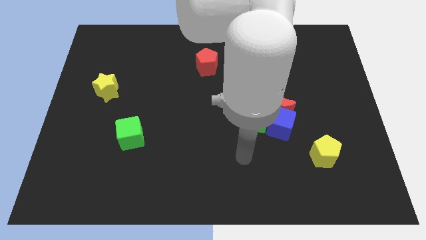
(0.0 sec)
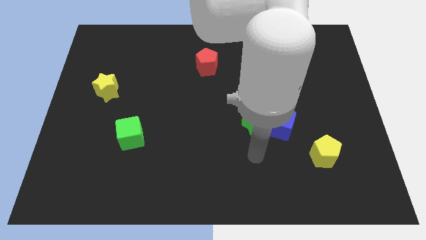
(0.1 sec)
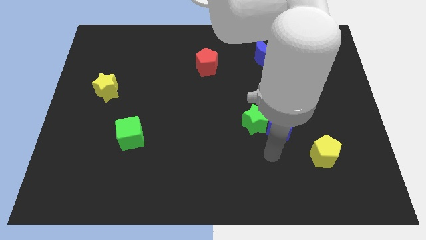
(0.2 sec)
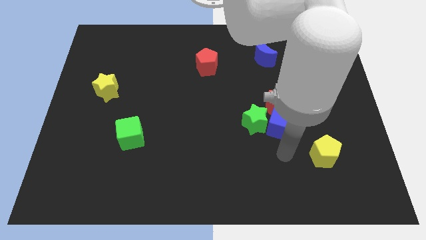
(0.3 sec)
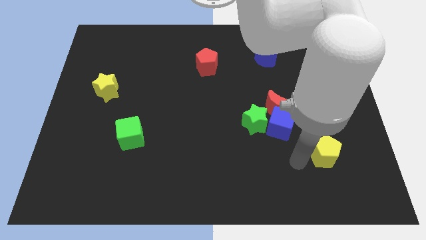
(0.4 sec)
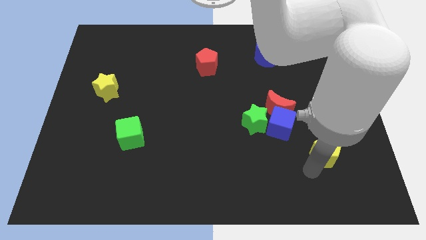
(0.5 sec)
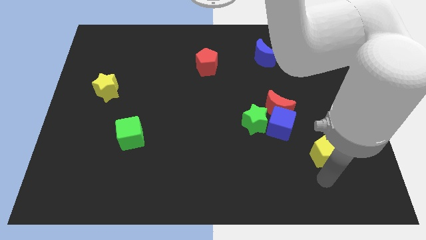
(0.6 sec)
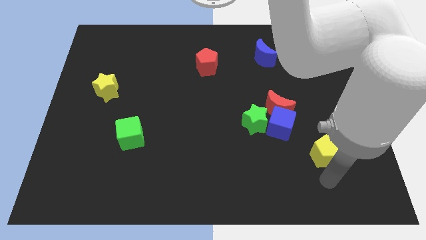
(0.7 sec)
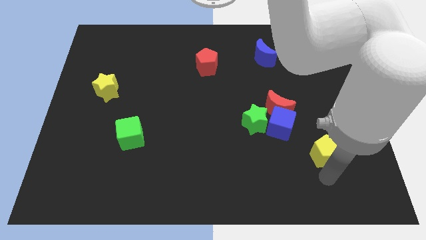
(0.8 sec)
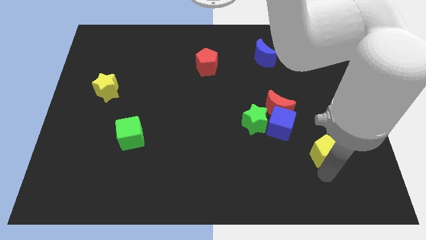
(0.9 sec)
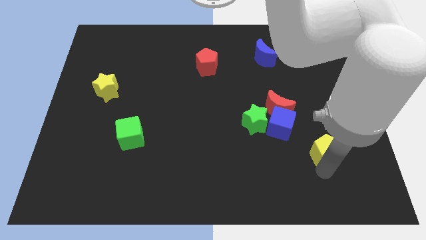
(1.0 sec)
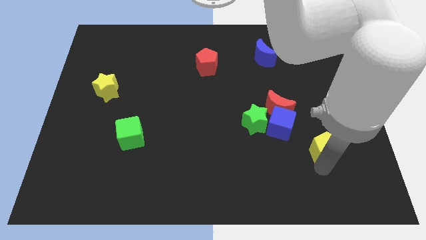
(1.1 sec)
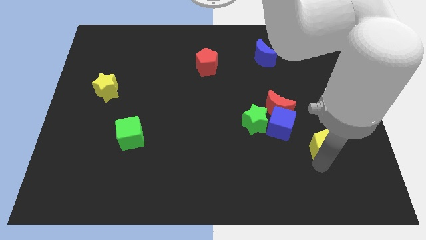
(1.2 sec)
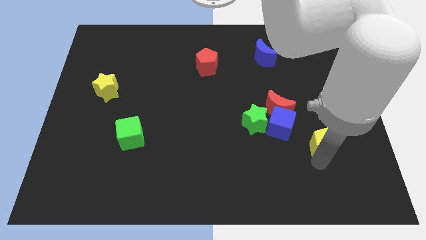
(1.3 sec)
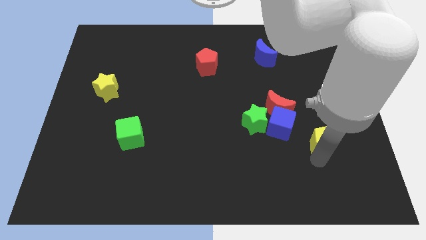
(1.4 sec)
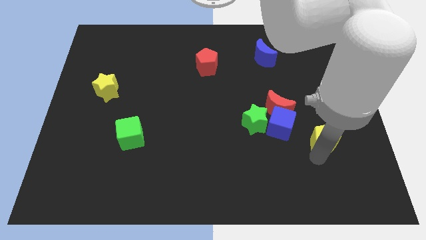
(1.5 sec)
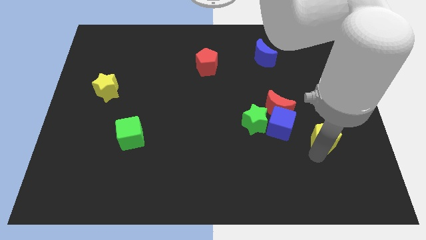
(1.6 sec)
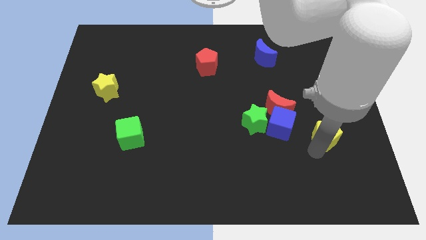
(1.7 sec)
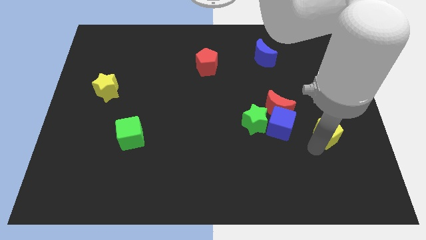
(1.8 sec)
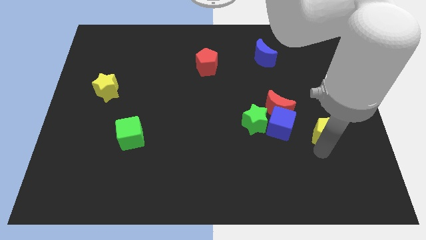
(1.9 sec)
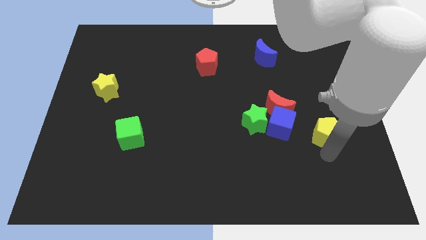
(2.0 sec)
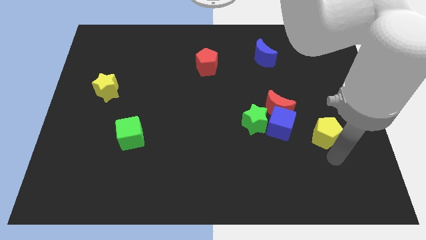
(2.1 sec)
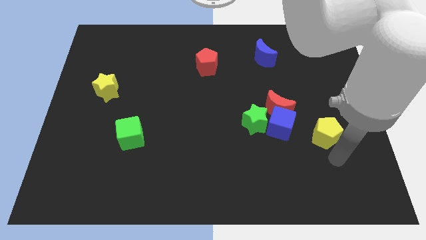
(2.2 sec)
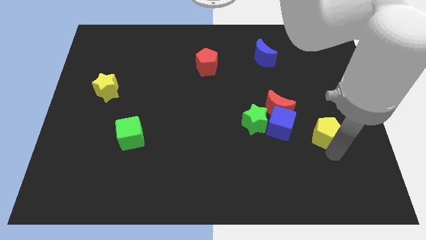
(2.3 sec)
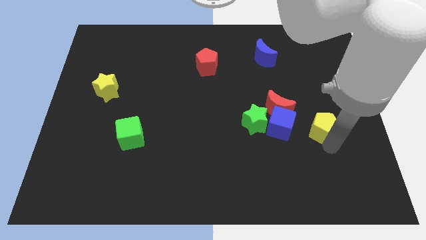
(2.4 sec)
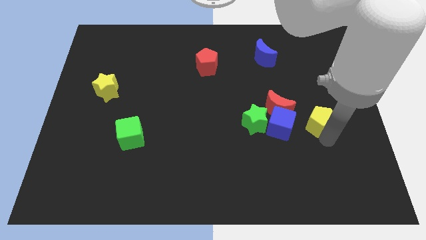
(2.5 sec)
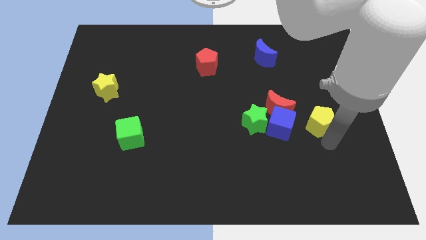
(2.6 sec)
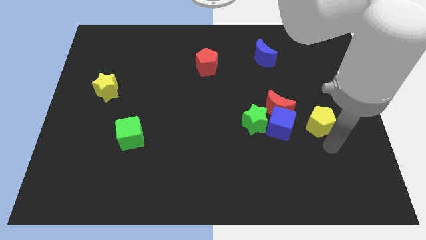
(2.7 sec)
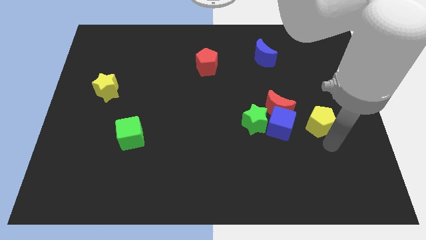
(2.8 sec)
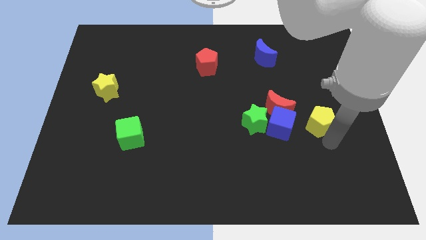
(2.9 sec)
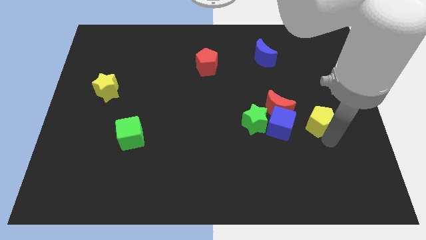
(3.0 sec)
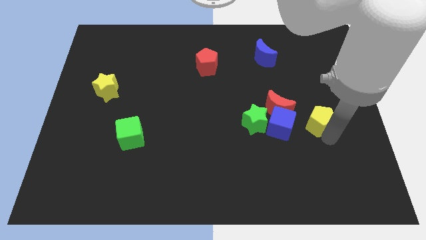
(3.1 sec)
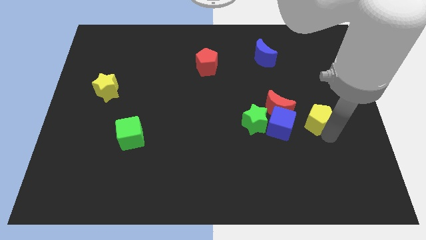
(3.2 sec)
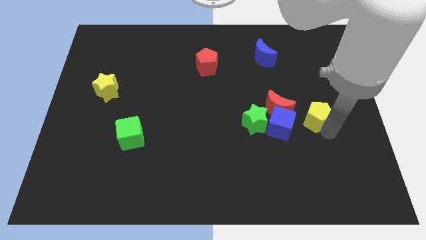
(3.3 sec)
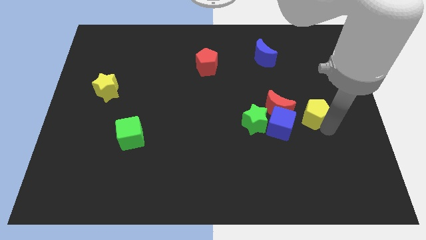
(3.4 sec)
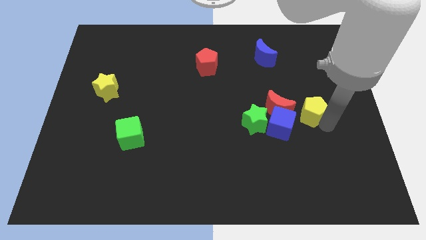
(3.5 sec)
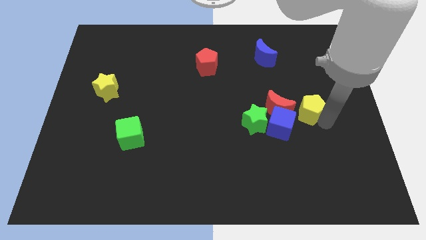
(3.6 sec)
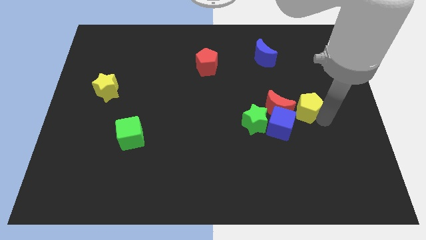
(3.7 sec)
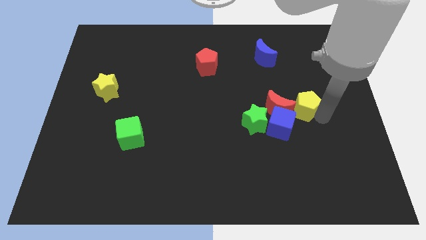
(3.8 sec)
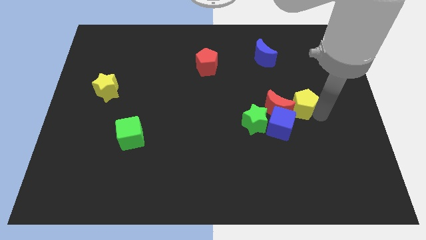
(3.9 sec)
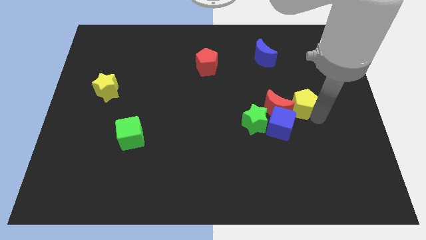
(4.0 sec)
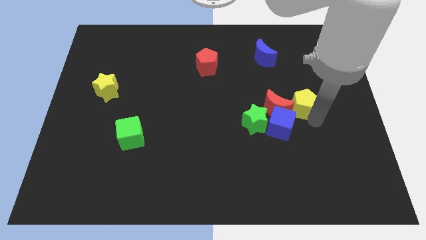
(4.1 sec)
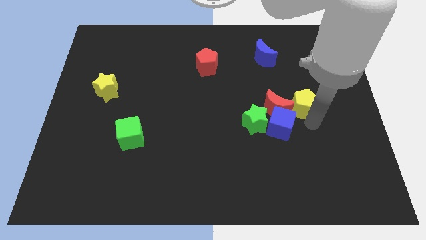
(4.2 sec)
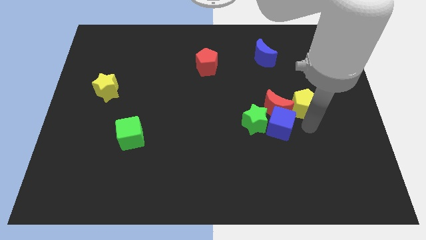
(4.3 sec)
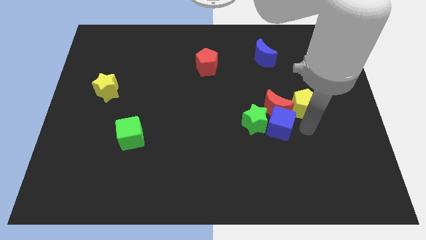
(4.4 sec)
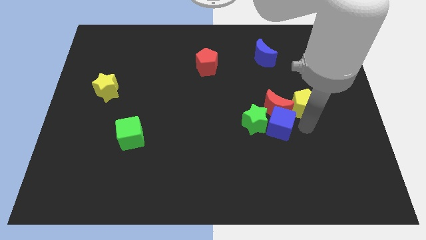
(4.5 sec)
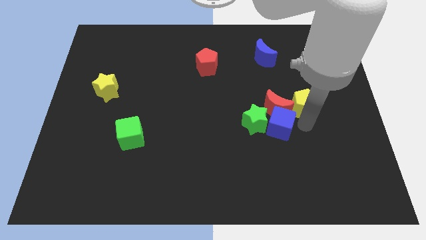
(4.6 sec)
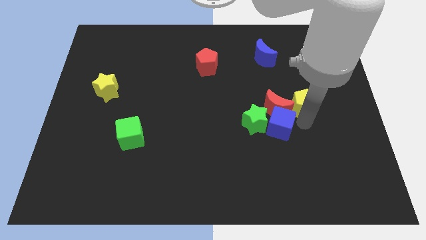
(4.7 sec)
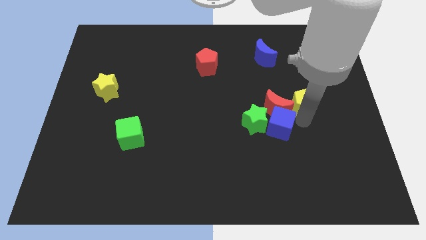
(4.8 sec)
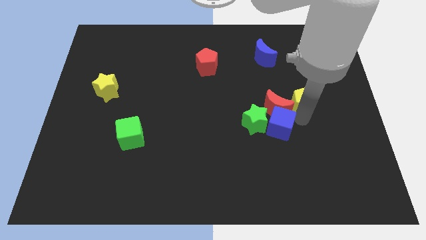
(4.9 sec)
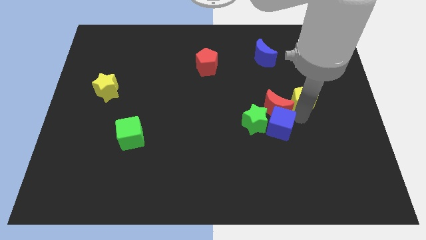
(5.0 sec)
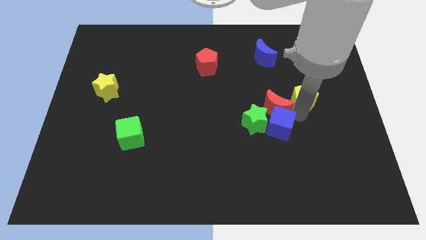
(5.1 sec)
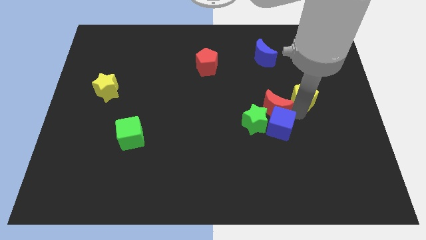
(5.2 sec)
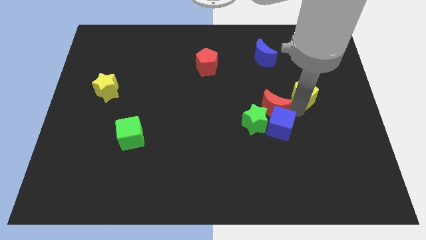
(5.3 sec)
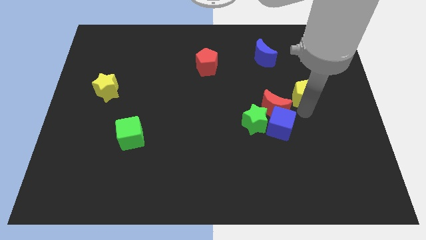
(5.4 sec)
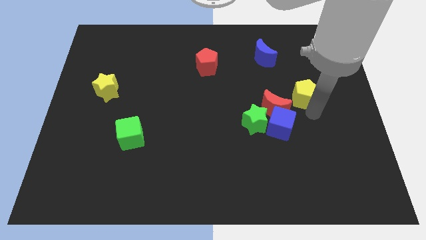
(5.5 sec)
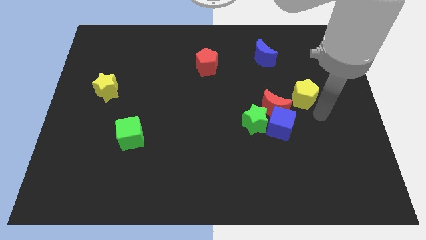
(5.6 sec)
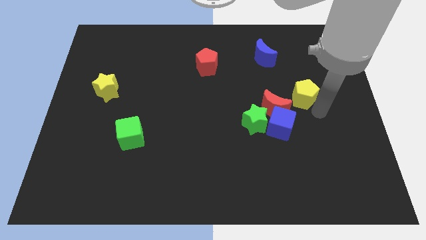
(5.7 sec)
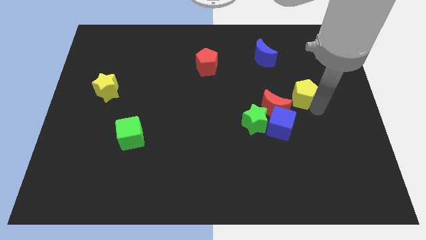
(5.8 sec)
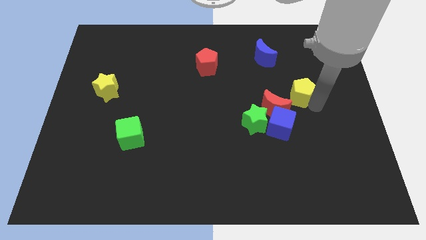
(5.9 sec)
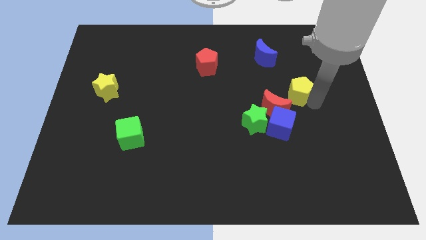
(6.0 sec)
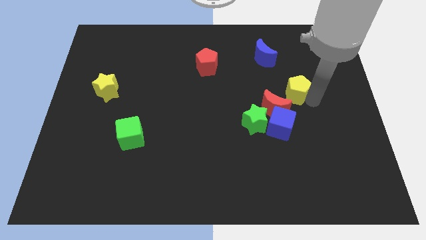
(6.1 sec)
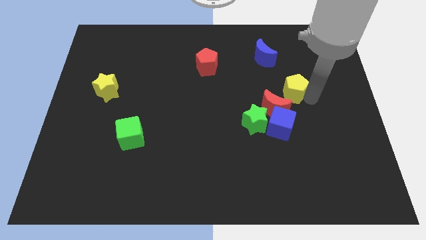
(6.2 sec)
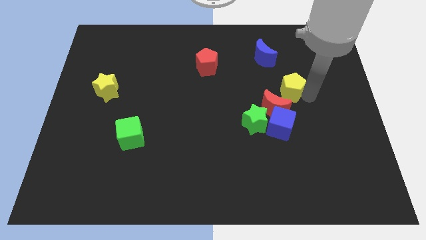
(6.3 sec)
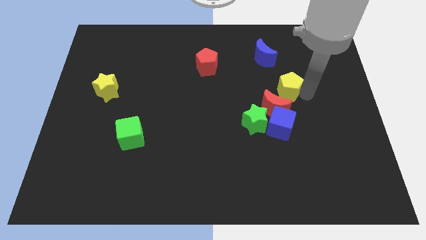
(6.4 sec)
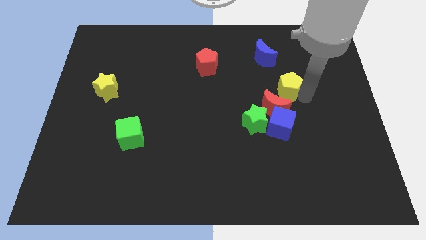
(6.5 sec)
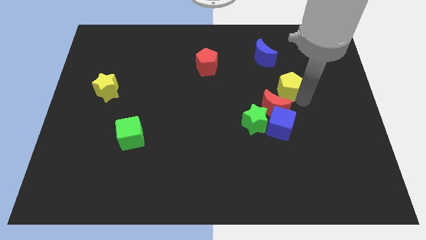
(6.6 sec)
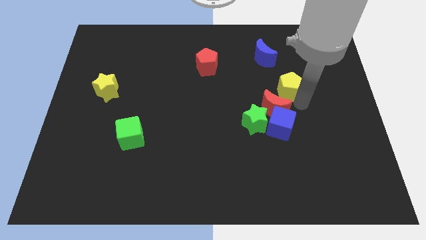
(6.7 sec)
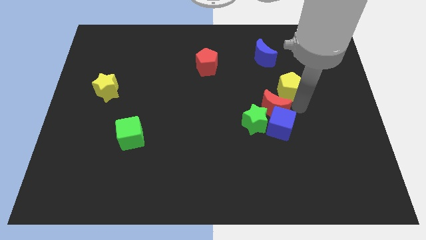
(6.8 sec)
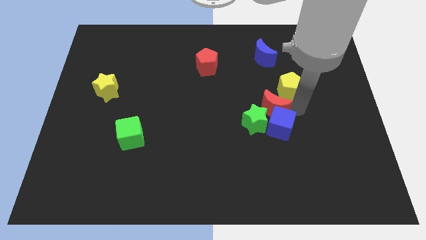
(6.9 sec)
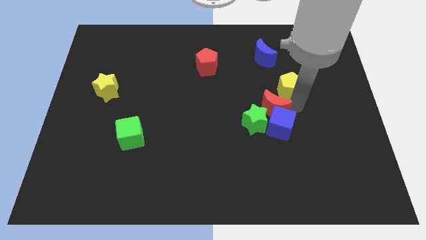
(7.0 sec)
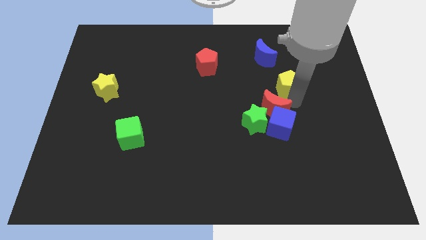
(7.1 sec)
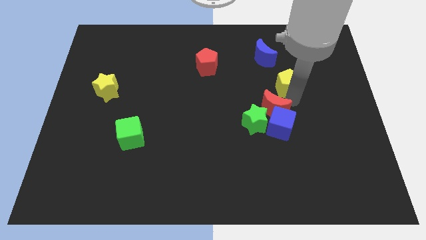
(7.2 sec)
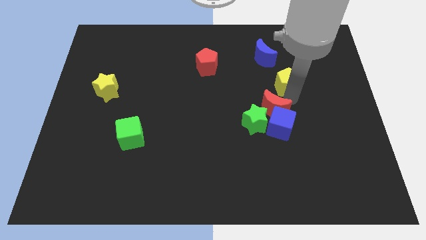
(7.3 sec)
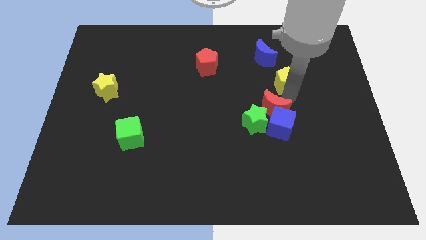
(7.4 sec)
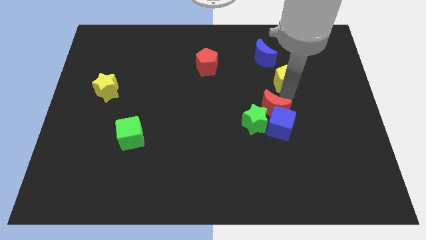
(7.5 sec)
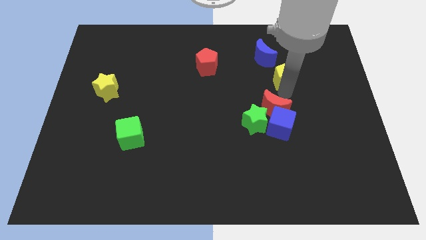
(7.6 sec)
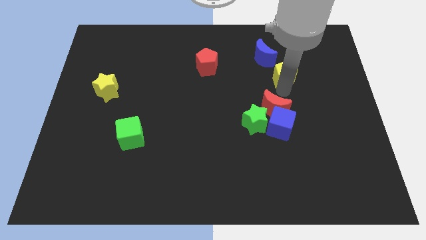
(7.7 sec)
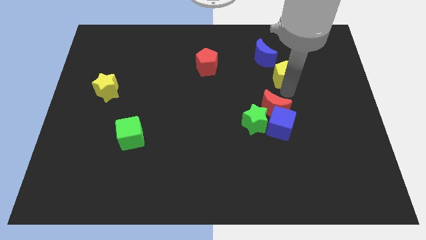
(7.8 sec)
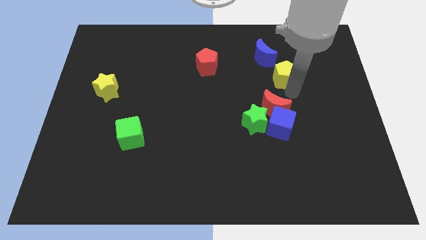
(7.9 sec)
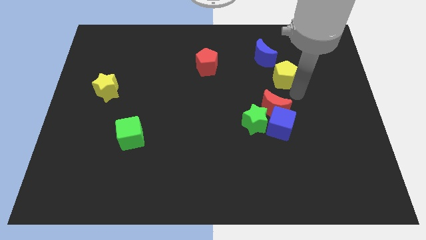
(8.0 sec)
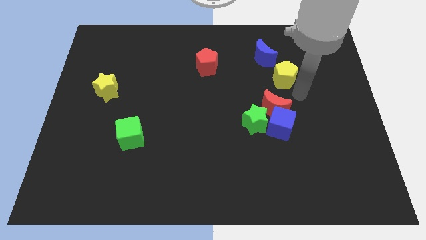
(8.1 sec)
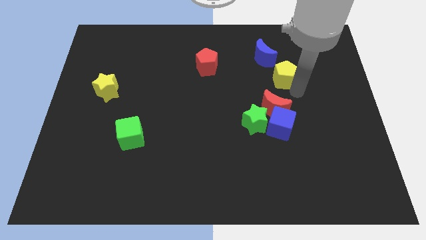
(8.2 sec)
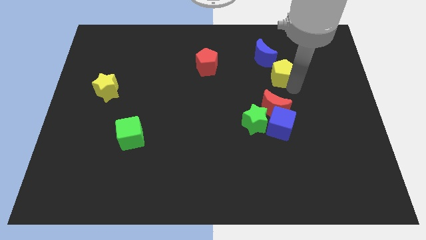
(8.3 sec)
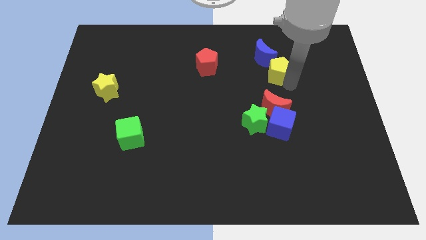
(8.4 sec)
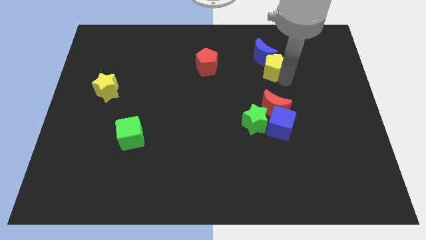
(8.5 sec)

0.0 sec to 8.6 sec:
slide the yellow pentagon next to the blue moon
